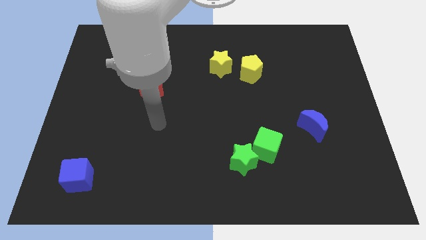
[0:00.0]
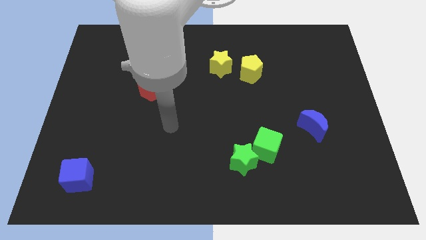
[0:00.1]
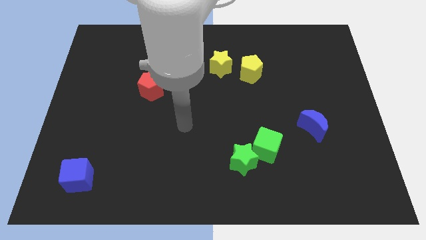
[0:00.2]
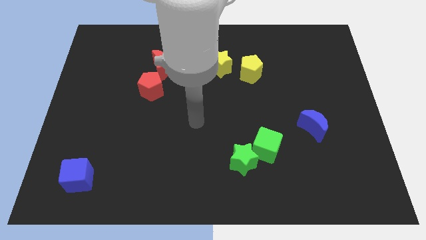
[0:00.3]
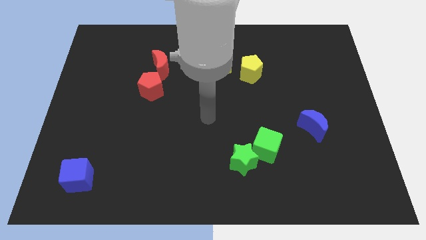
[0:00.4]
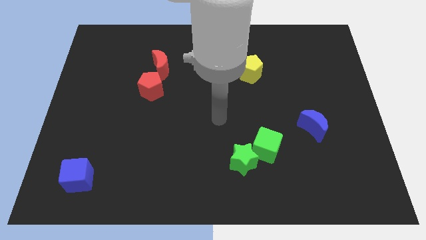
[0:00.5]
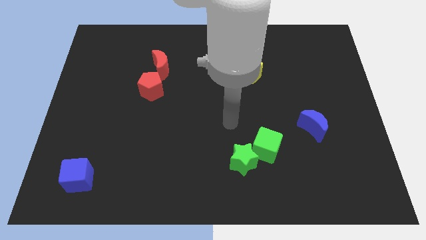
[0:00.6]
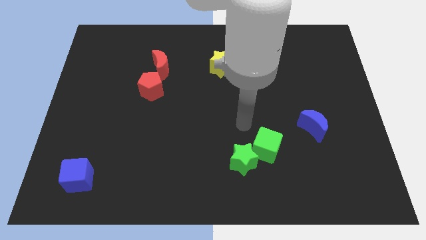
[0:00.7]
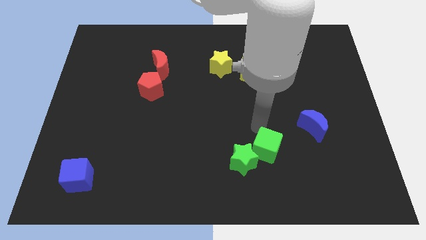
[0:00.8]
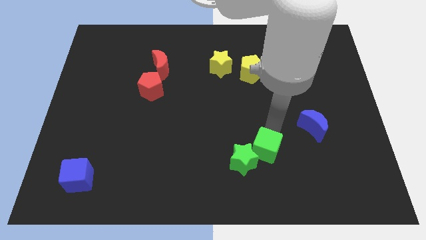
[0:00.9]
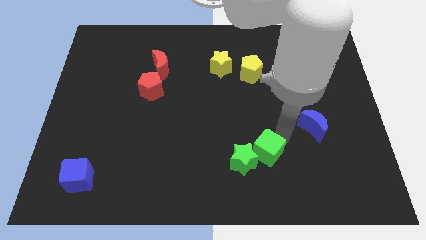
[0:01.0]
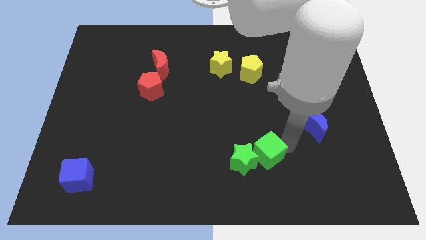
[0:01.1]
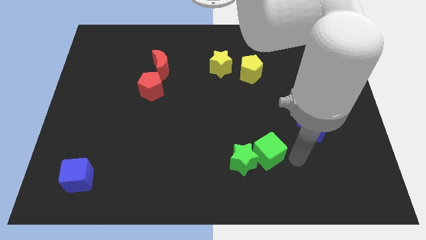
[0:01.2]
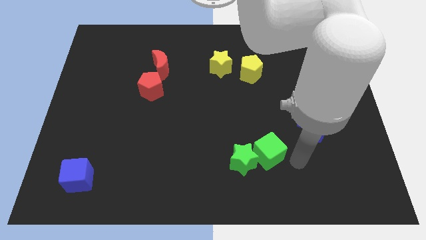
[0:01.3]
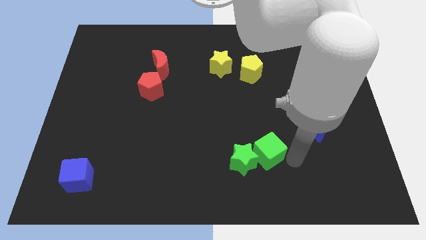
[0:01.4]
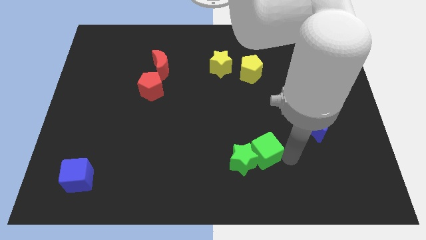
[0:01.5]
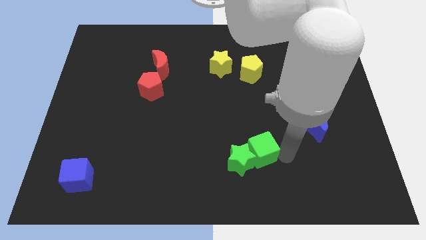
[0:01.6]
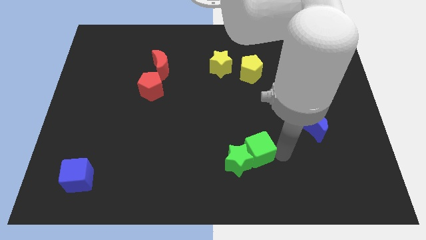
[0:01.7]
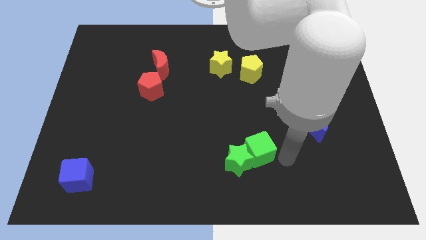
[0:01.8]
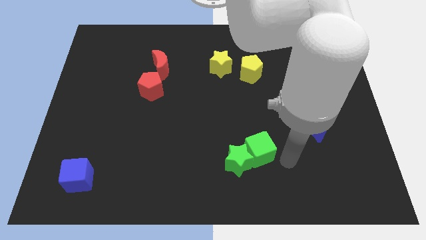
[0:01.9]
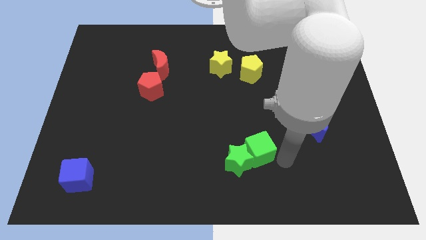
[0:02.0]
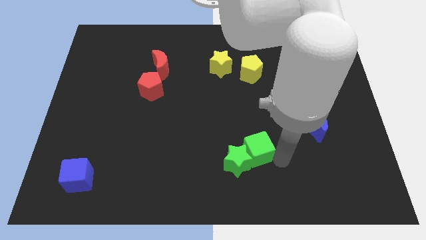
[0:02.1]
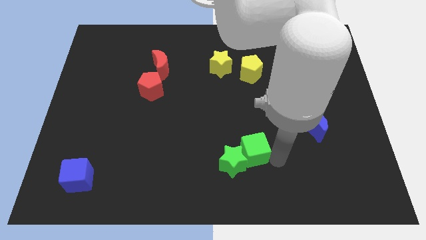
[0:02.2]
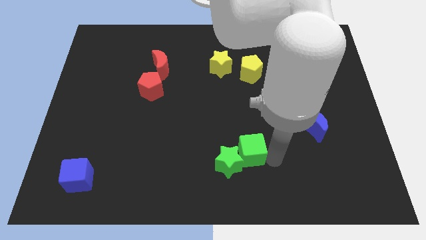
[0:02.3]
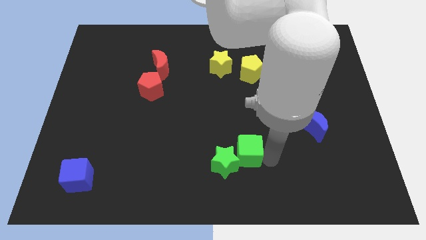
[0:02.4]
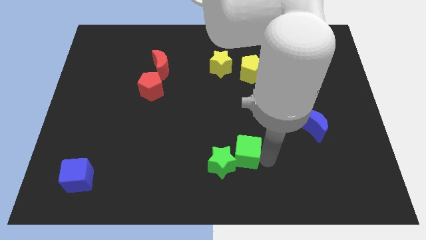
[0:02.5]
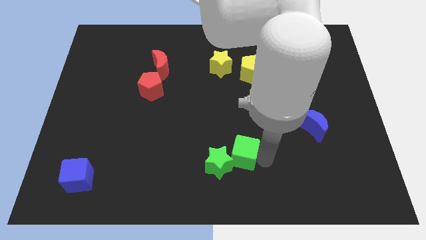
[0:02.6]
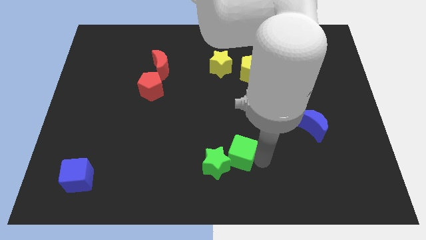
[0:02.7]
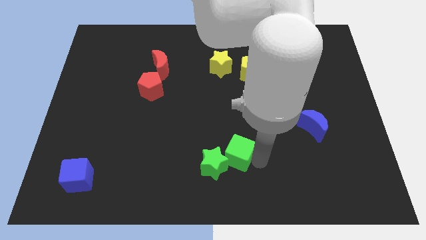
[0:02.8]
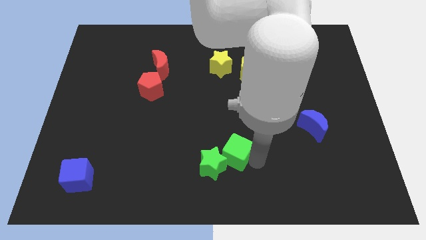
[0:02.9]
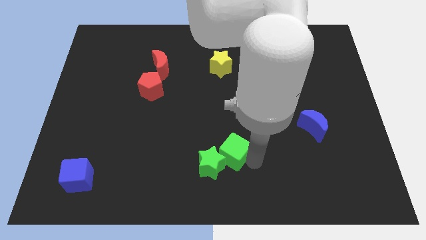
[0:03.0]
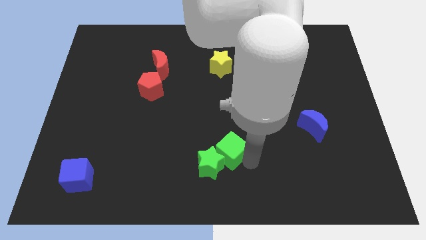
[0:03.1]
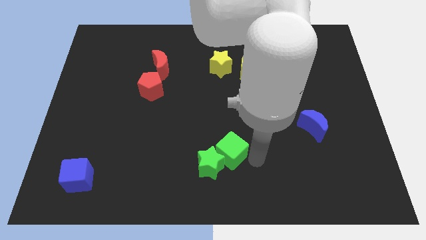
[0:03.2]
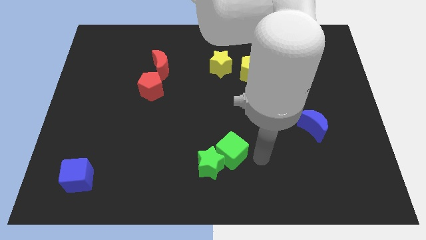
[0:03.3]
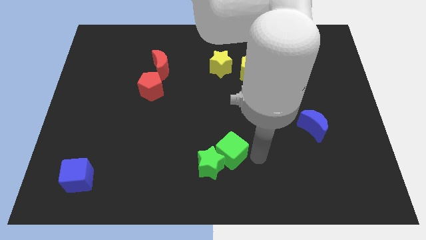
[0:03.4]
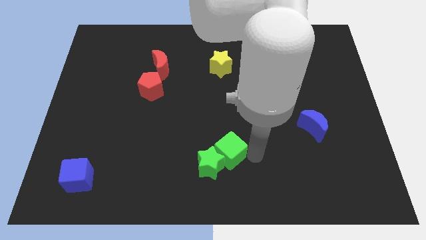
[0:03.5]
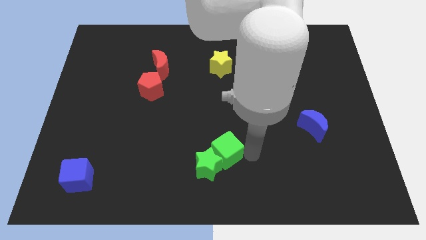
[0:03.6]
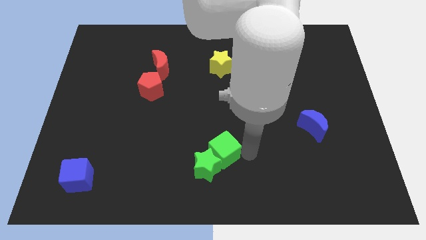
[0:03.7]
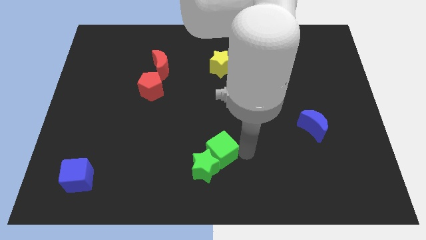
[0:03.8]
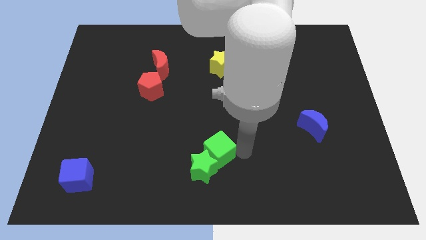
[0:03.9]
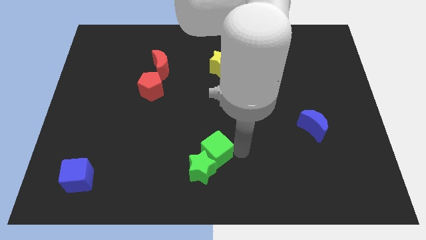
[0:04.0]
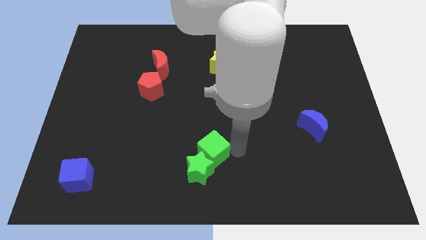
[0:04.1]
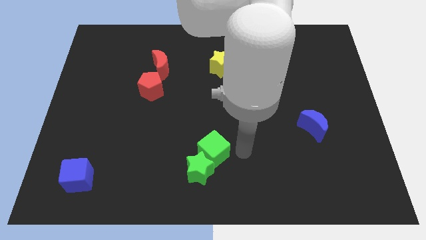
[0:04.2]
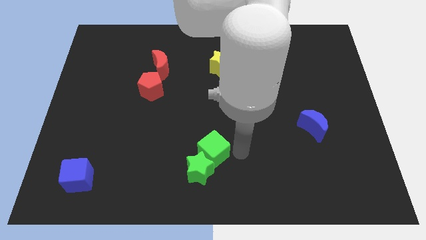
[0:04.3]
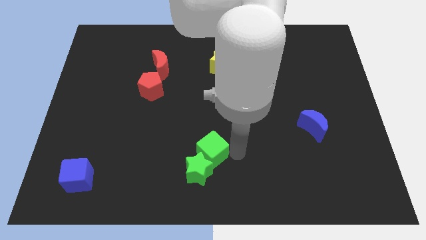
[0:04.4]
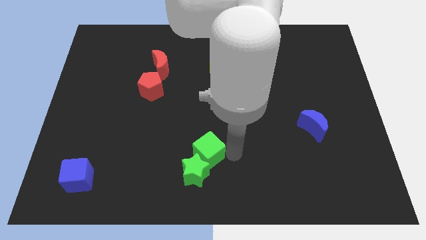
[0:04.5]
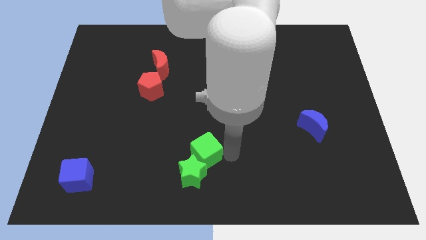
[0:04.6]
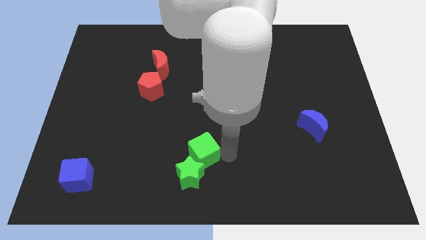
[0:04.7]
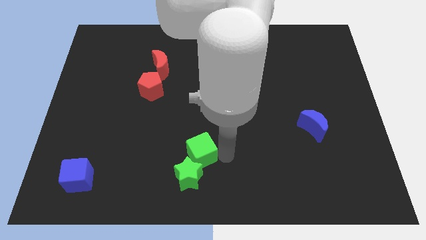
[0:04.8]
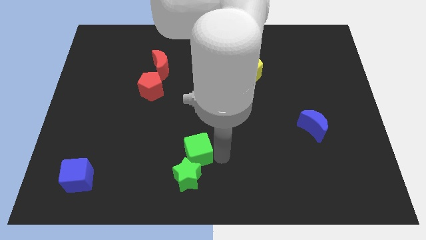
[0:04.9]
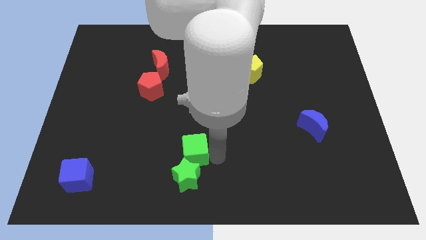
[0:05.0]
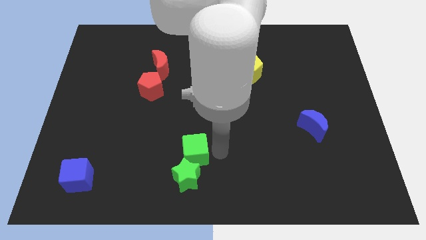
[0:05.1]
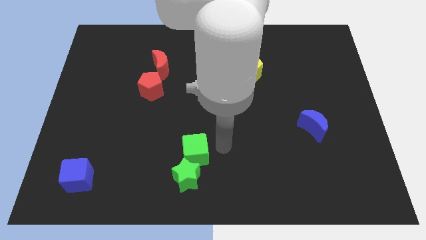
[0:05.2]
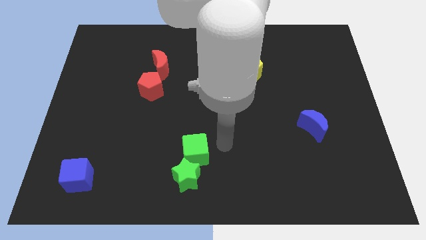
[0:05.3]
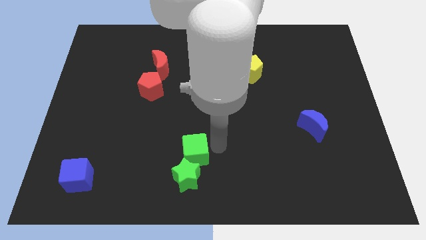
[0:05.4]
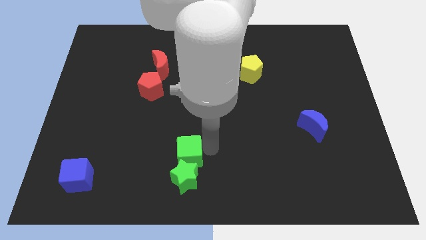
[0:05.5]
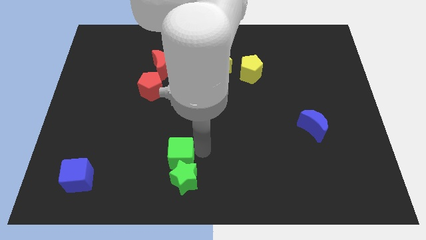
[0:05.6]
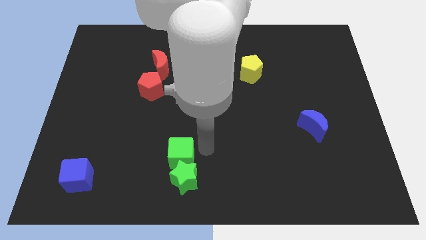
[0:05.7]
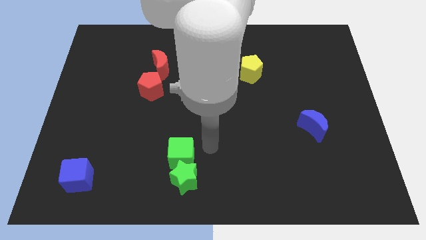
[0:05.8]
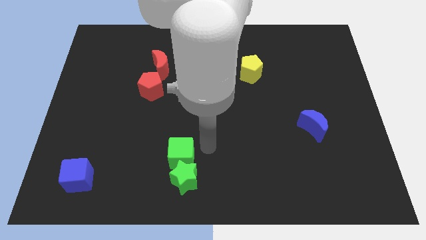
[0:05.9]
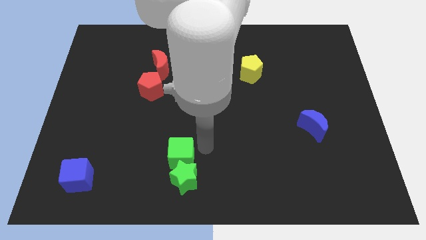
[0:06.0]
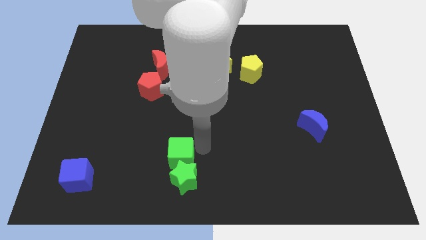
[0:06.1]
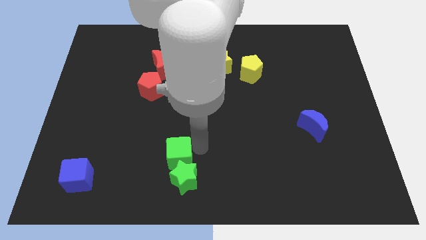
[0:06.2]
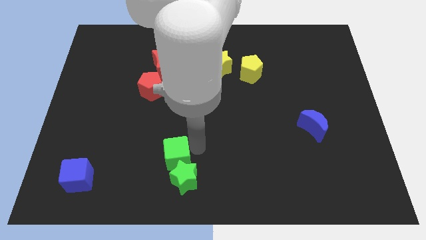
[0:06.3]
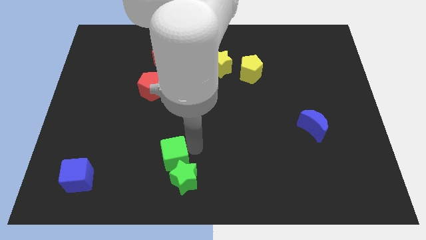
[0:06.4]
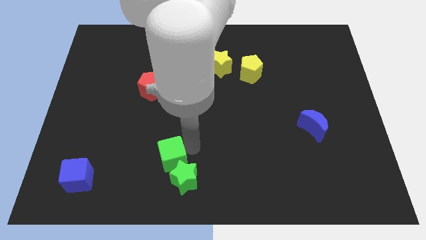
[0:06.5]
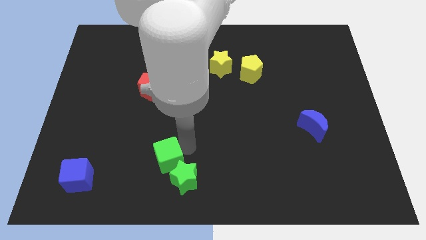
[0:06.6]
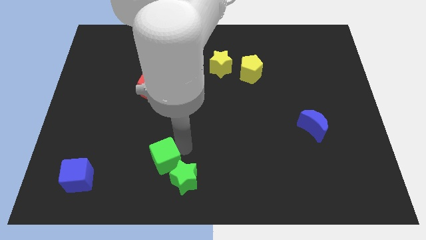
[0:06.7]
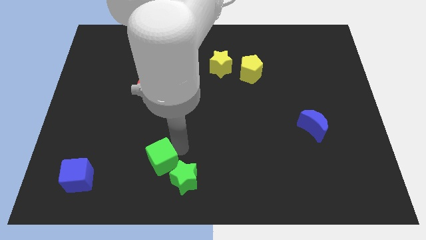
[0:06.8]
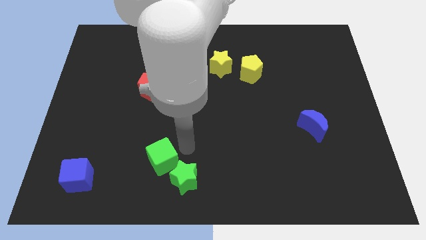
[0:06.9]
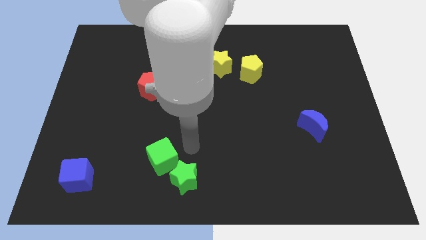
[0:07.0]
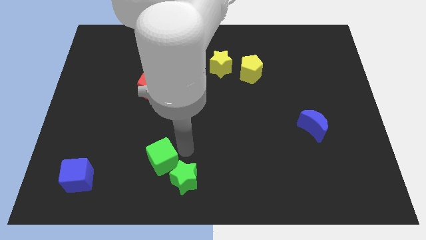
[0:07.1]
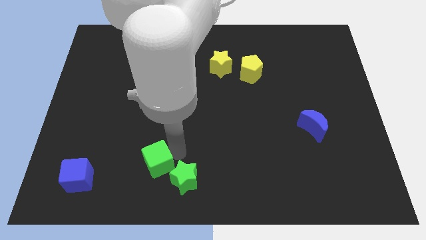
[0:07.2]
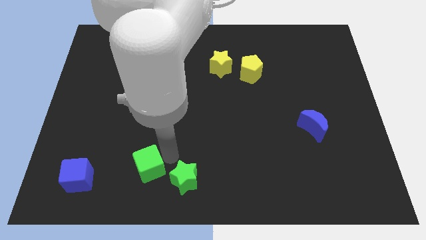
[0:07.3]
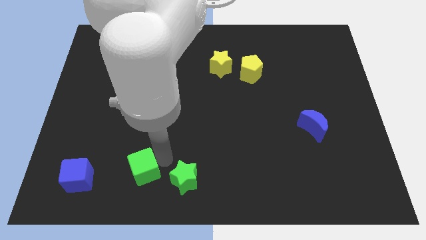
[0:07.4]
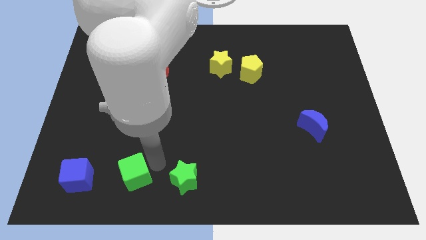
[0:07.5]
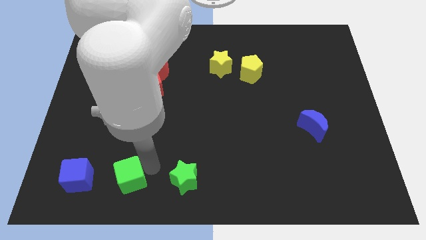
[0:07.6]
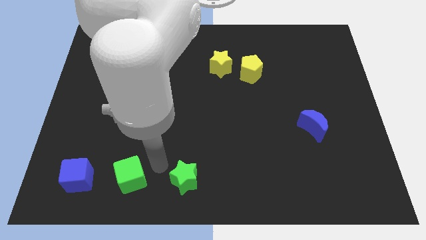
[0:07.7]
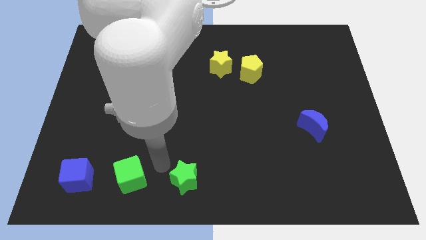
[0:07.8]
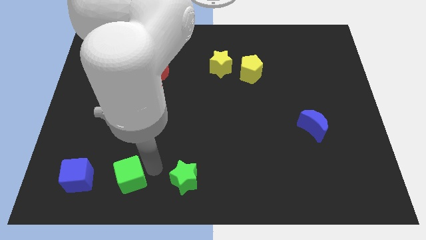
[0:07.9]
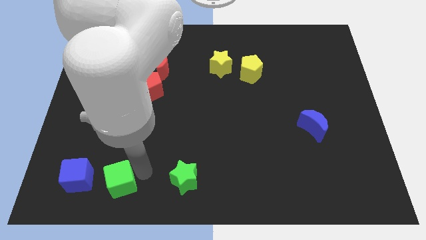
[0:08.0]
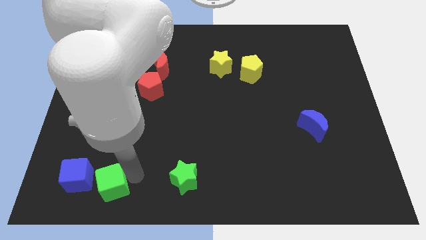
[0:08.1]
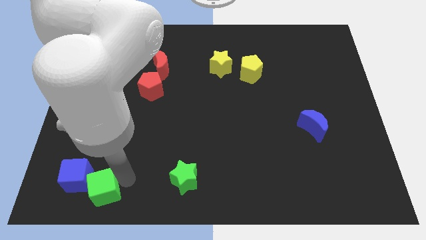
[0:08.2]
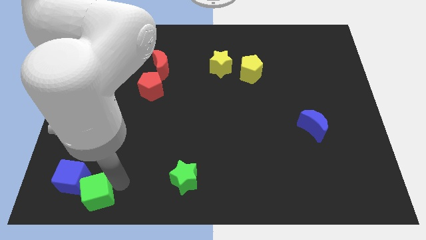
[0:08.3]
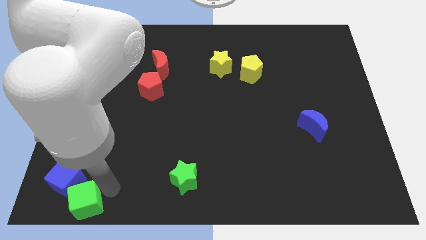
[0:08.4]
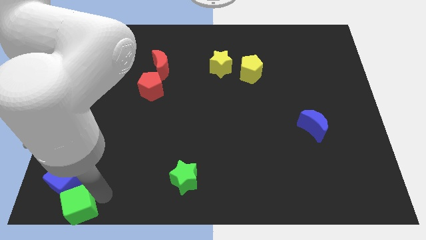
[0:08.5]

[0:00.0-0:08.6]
push the green cube to the bottom left corner
